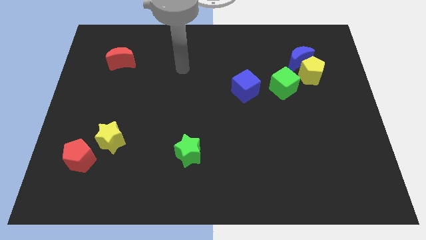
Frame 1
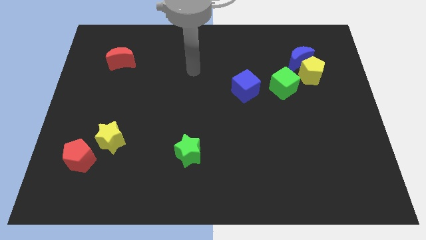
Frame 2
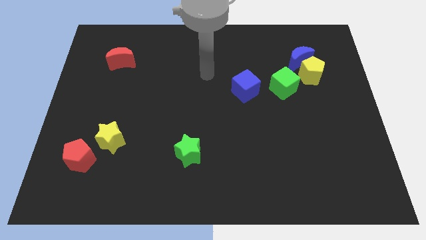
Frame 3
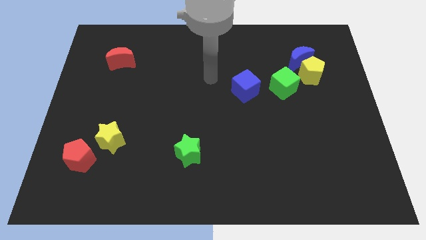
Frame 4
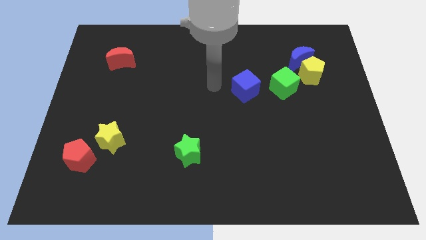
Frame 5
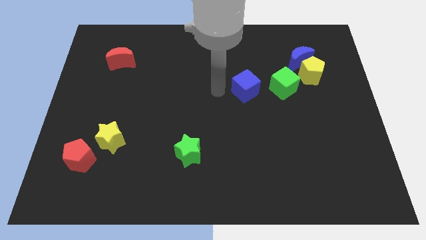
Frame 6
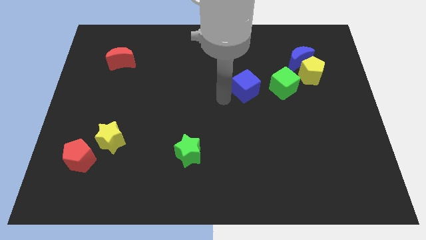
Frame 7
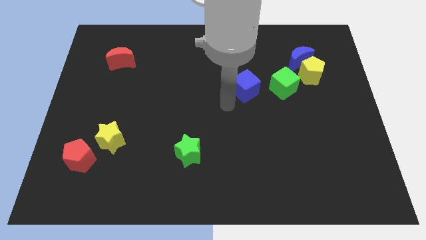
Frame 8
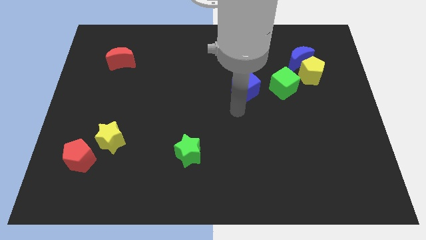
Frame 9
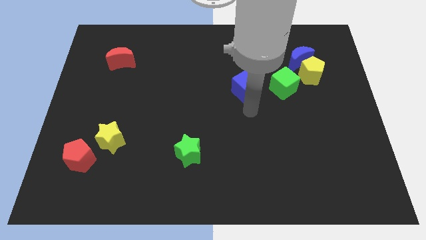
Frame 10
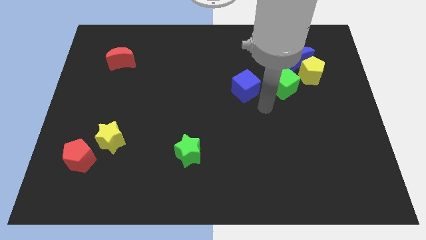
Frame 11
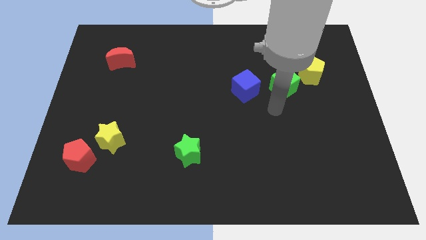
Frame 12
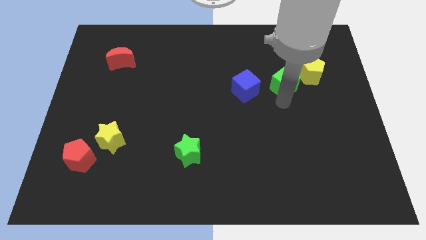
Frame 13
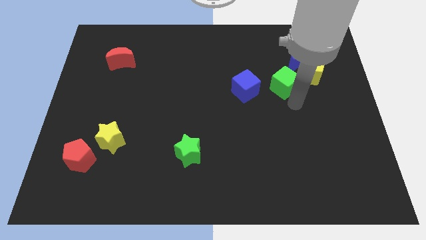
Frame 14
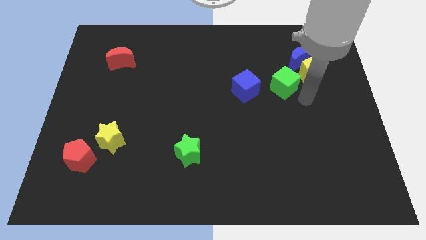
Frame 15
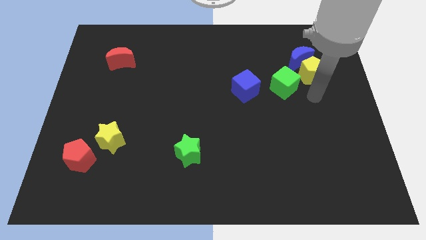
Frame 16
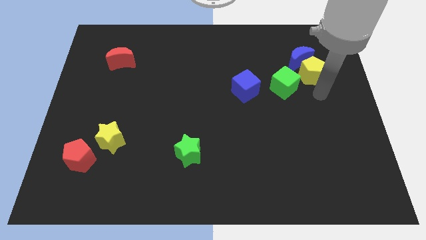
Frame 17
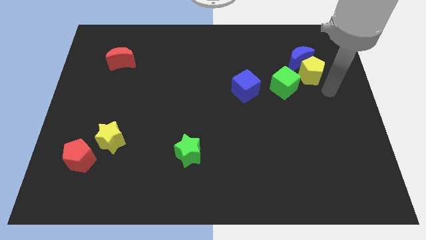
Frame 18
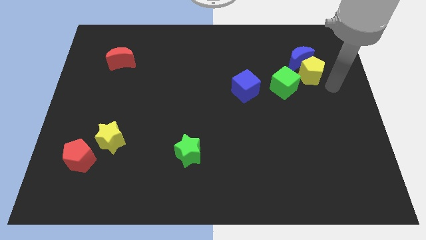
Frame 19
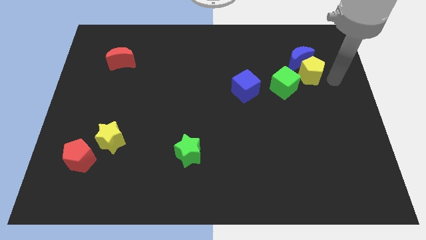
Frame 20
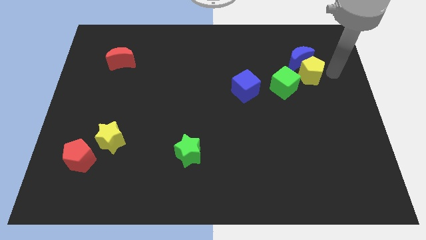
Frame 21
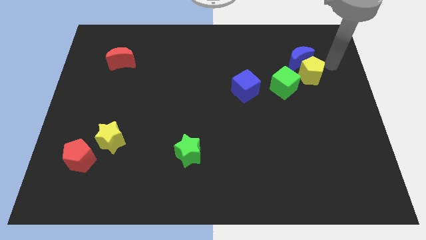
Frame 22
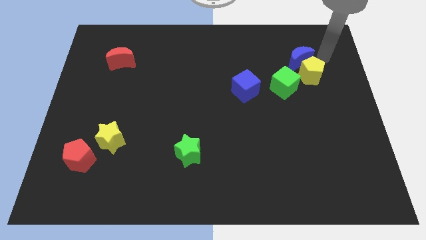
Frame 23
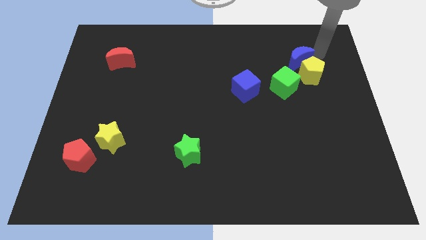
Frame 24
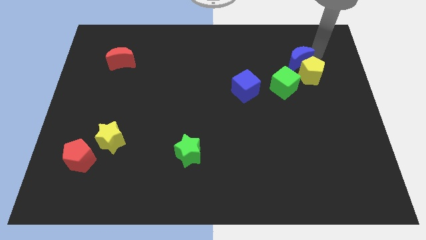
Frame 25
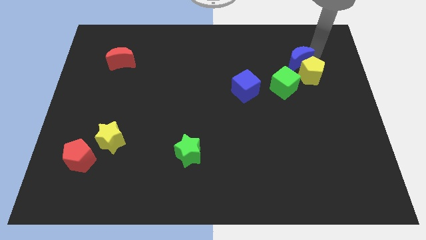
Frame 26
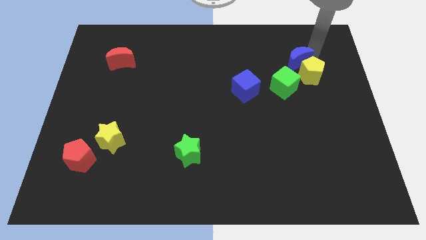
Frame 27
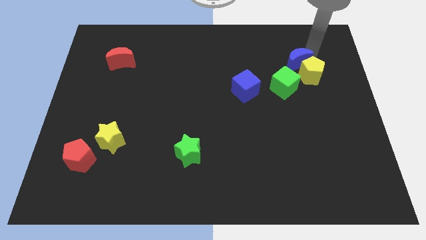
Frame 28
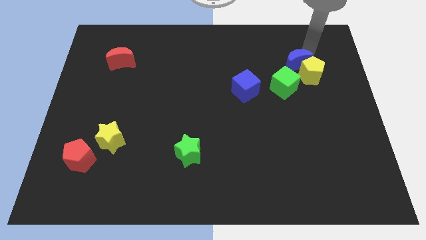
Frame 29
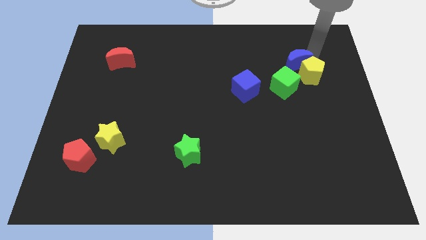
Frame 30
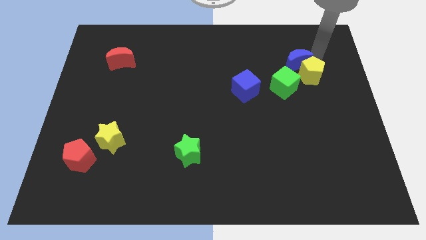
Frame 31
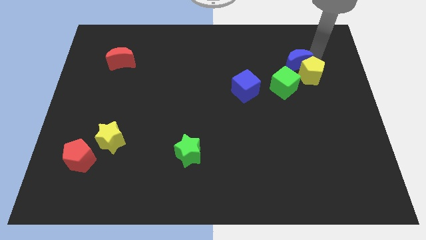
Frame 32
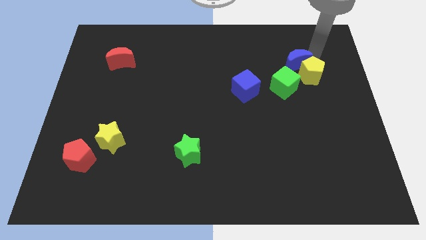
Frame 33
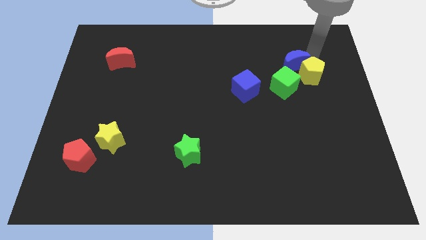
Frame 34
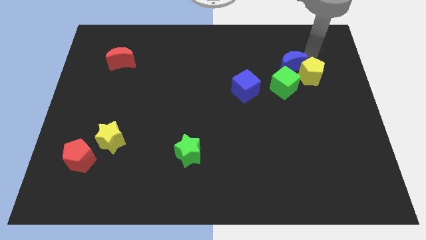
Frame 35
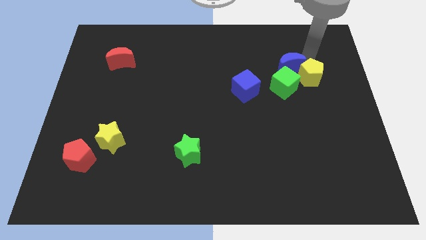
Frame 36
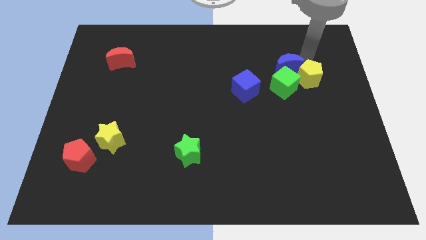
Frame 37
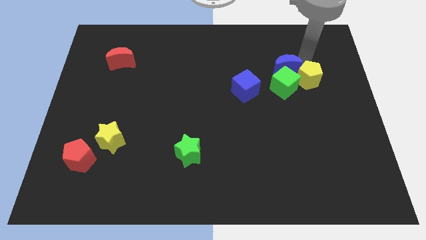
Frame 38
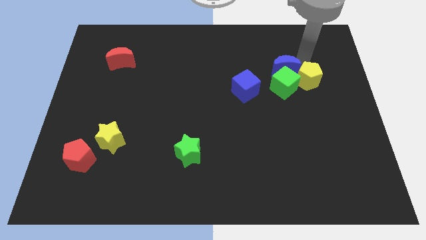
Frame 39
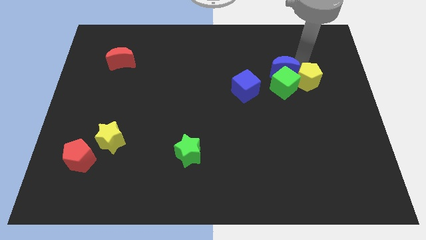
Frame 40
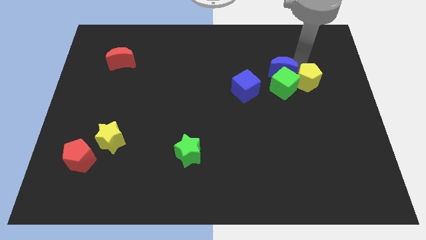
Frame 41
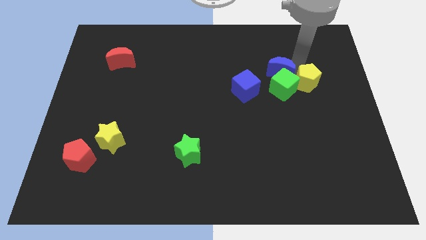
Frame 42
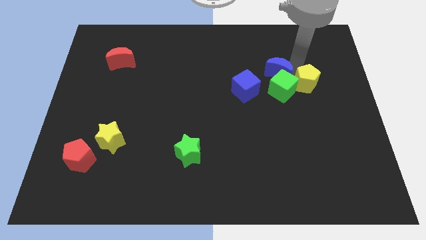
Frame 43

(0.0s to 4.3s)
push the blue moon down and left a little

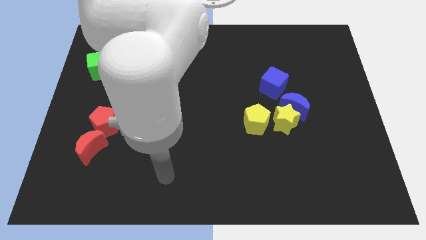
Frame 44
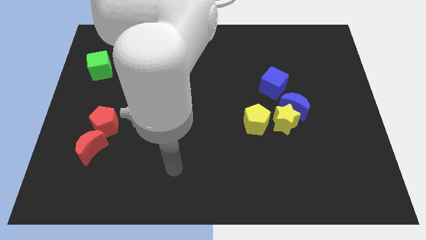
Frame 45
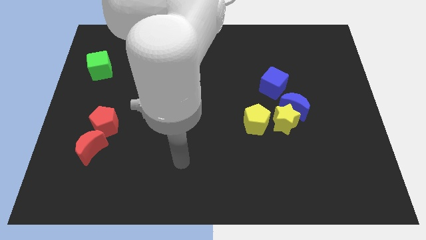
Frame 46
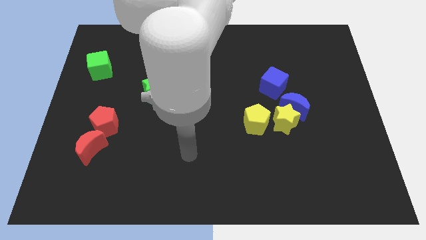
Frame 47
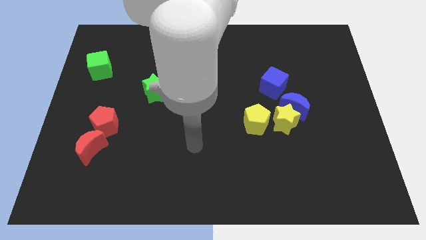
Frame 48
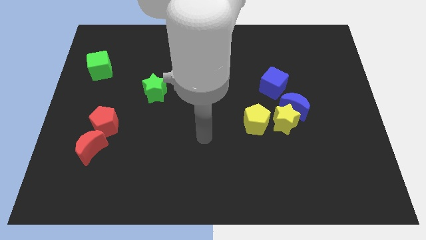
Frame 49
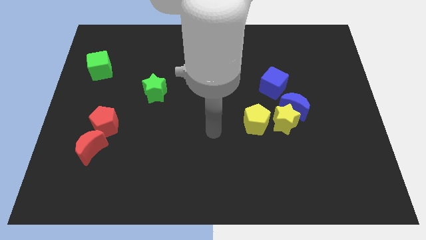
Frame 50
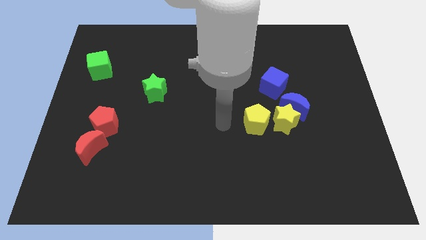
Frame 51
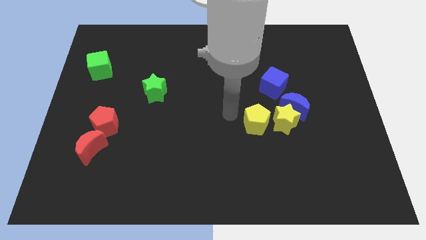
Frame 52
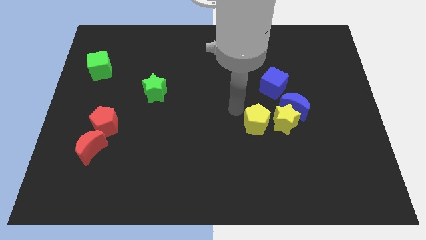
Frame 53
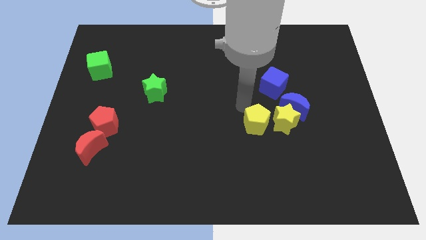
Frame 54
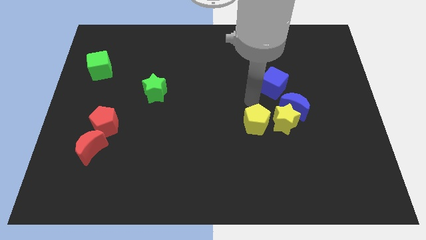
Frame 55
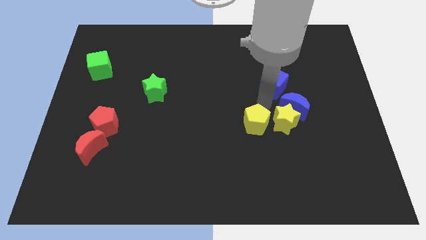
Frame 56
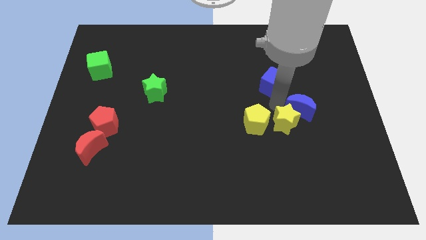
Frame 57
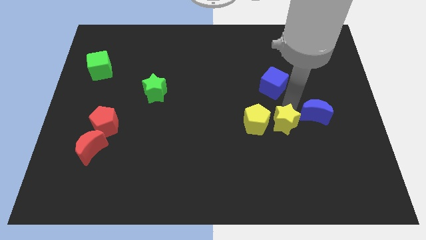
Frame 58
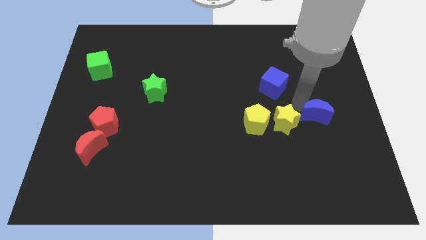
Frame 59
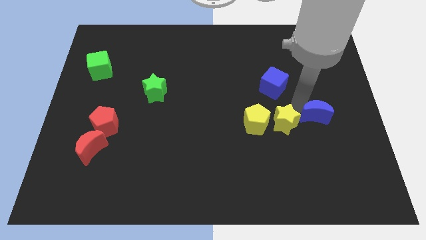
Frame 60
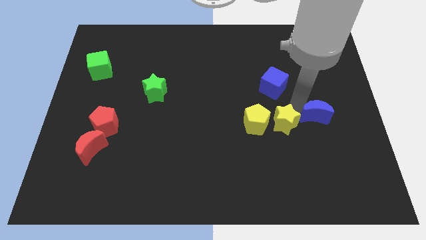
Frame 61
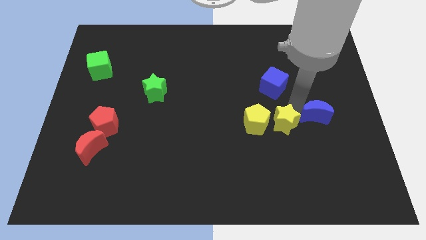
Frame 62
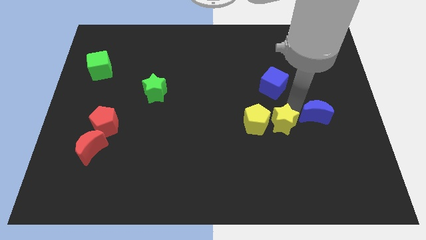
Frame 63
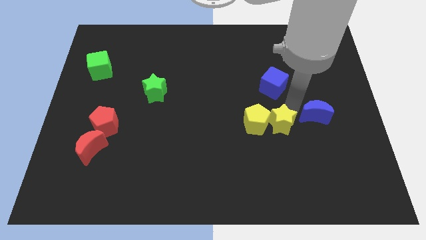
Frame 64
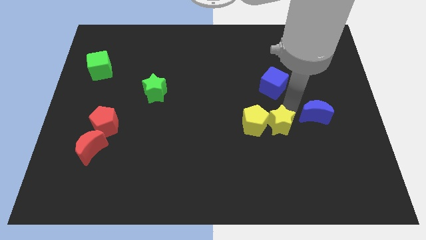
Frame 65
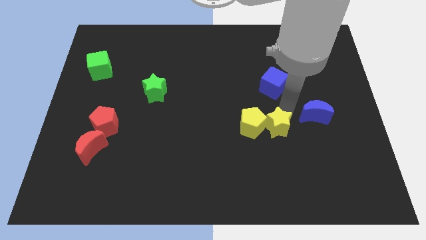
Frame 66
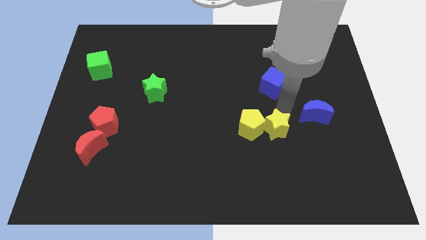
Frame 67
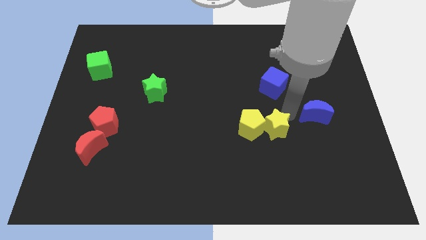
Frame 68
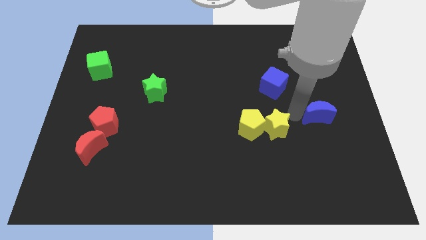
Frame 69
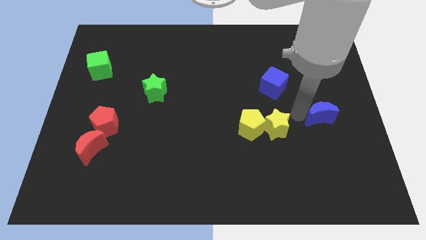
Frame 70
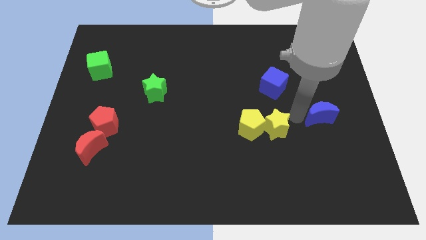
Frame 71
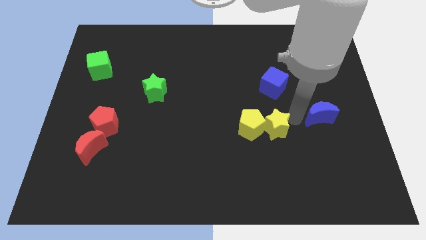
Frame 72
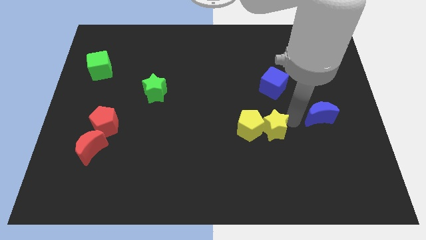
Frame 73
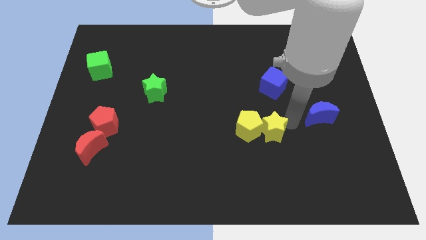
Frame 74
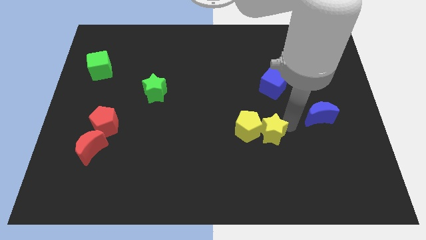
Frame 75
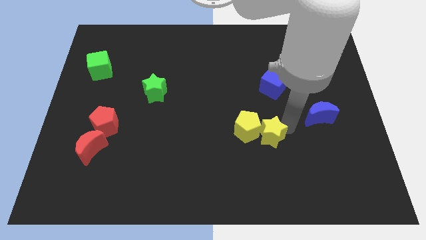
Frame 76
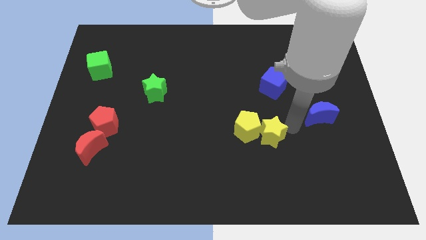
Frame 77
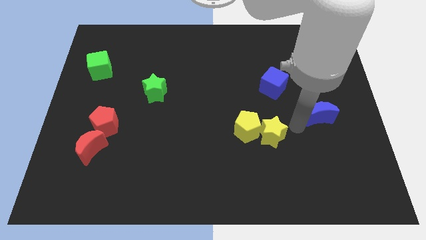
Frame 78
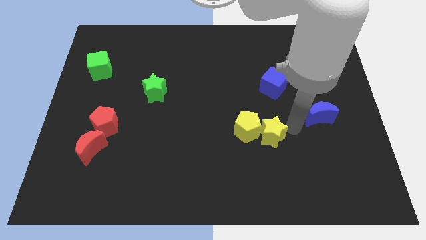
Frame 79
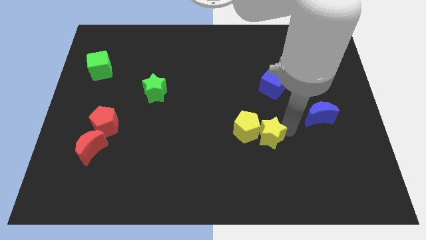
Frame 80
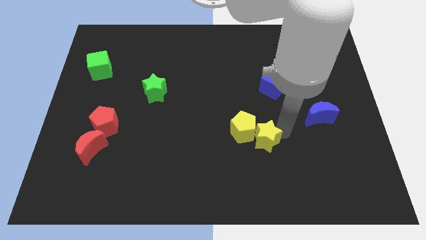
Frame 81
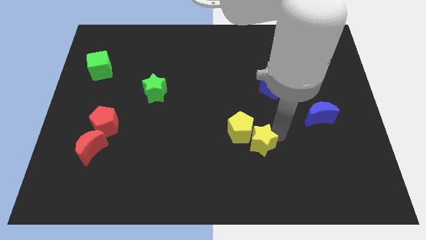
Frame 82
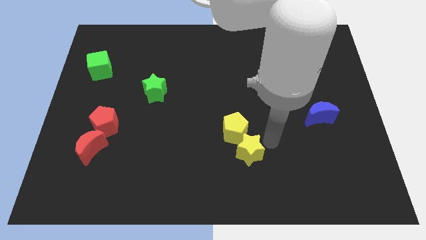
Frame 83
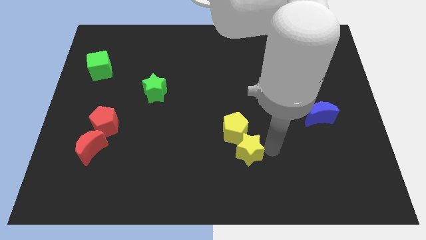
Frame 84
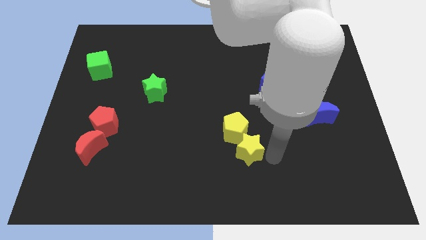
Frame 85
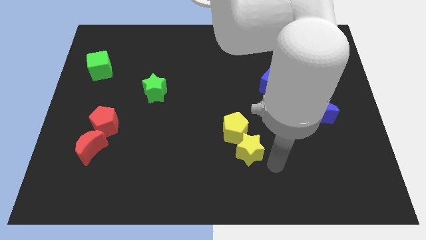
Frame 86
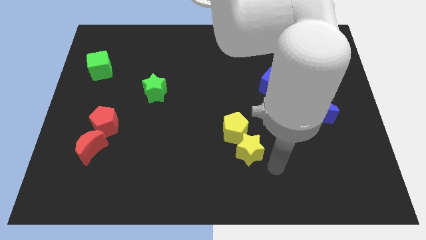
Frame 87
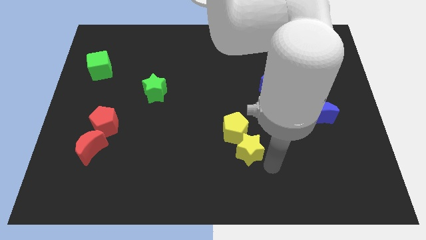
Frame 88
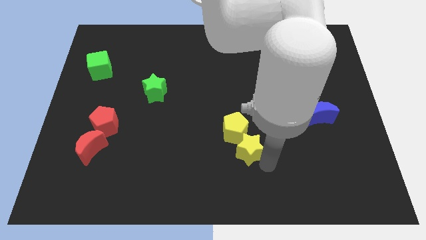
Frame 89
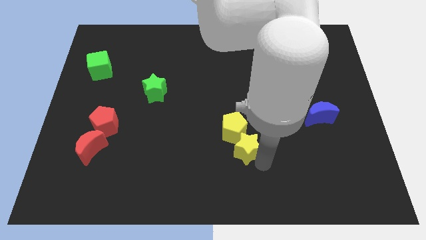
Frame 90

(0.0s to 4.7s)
slide the yellow star a little bit to the left
